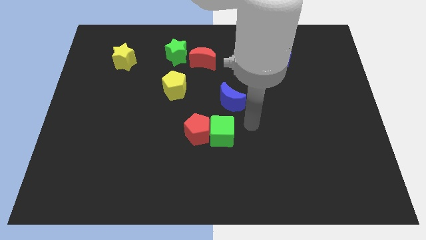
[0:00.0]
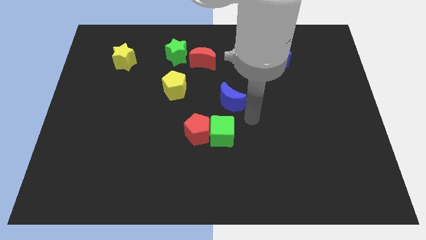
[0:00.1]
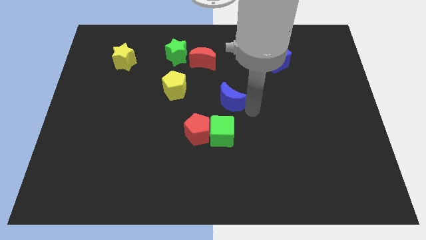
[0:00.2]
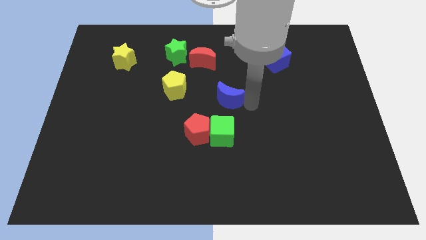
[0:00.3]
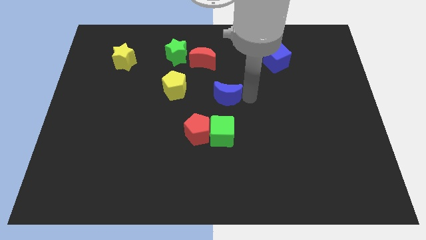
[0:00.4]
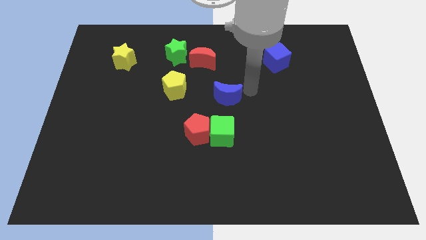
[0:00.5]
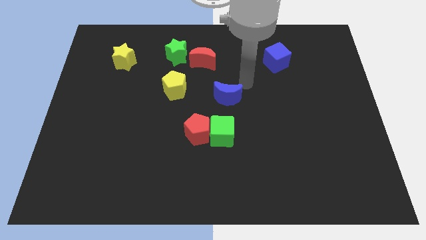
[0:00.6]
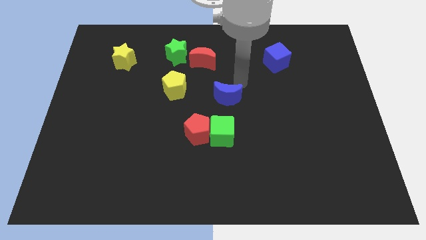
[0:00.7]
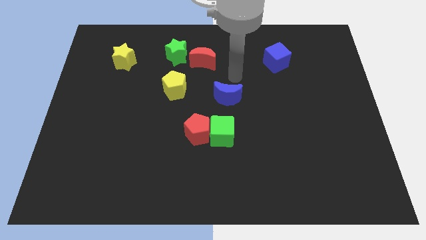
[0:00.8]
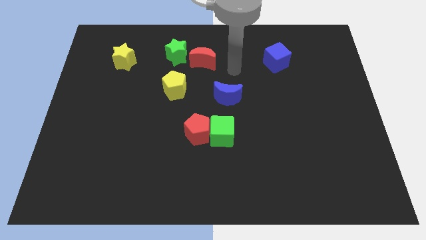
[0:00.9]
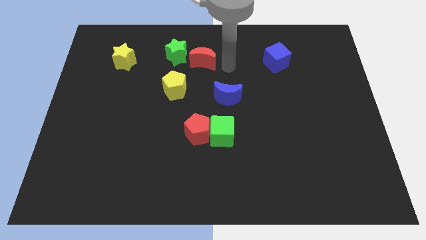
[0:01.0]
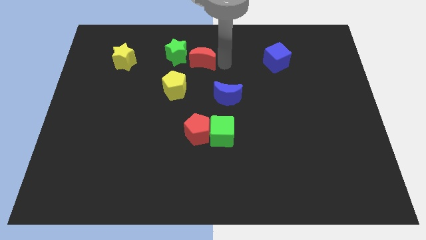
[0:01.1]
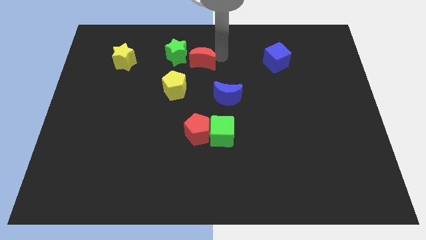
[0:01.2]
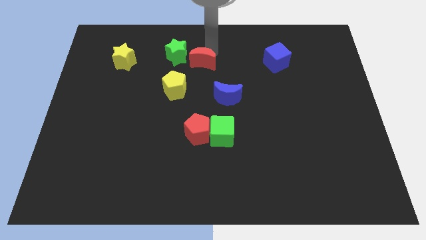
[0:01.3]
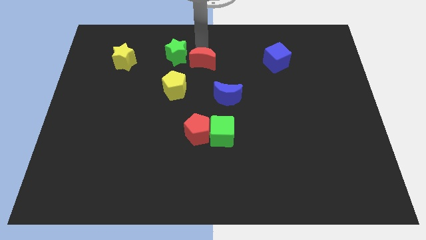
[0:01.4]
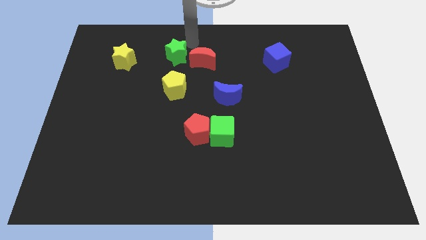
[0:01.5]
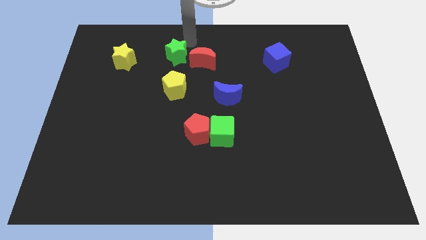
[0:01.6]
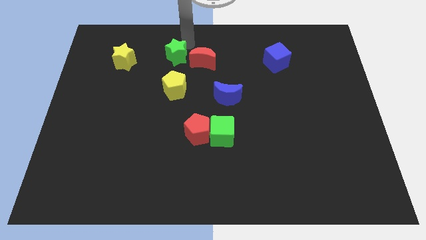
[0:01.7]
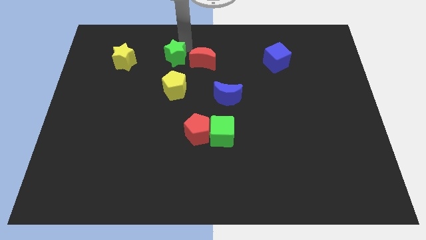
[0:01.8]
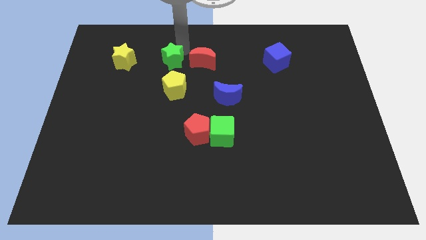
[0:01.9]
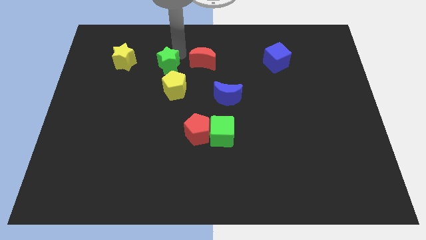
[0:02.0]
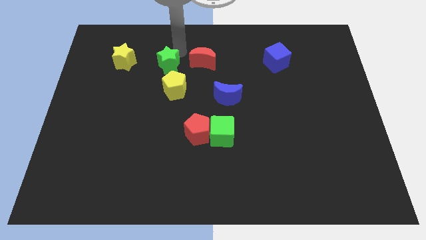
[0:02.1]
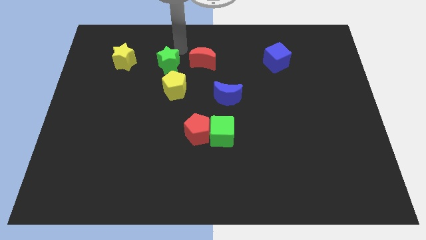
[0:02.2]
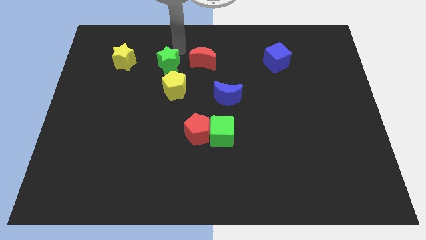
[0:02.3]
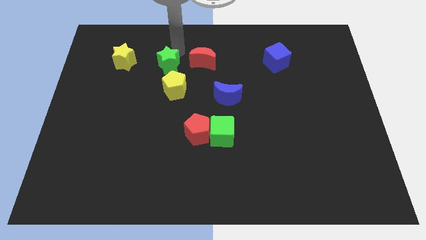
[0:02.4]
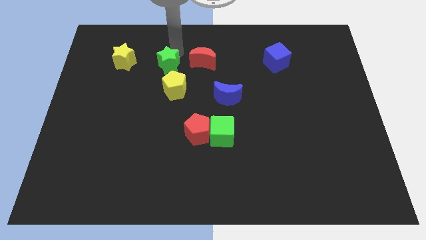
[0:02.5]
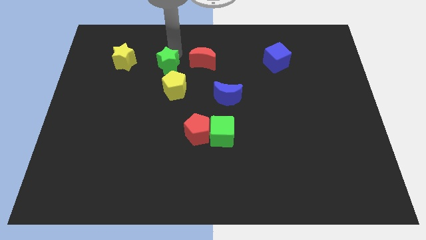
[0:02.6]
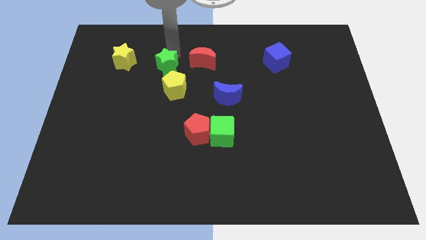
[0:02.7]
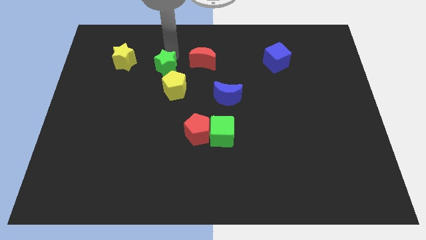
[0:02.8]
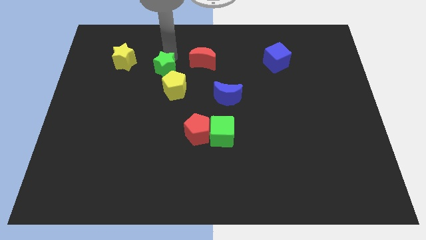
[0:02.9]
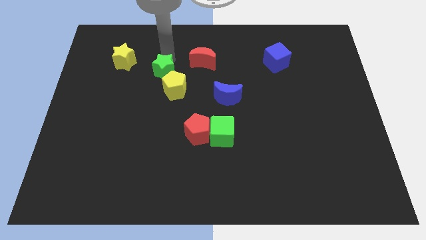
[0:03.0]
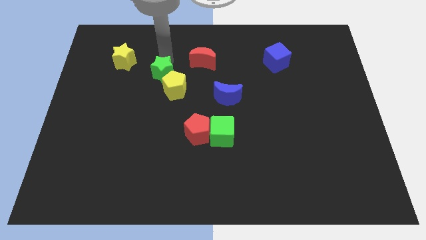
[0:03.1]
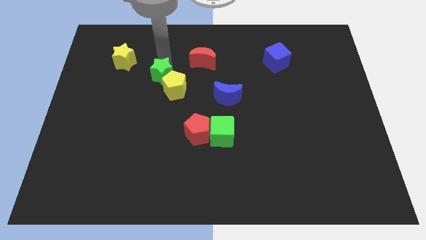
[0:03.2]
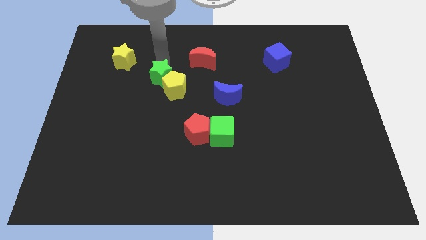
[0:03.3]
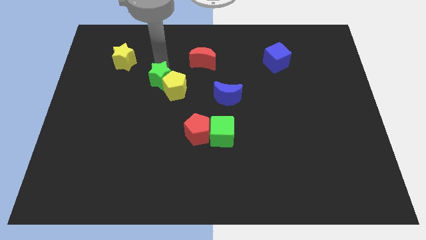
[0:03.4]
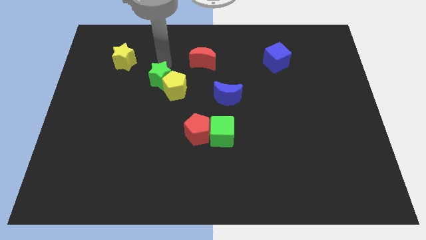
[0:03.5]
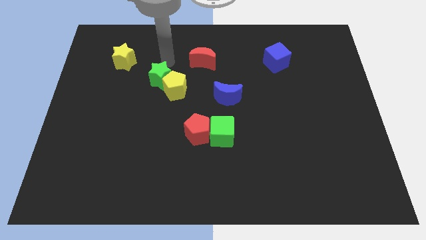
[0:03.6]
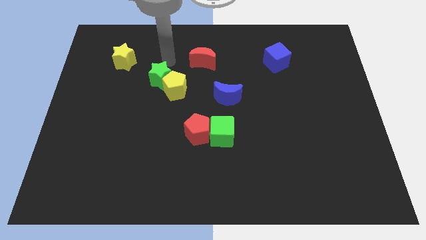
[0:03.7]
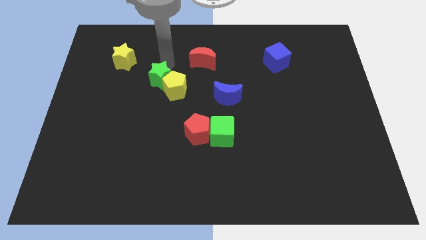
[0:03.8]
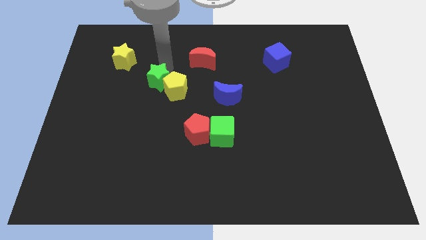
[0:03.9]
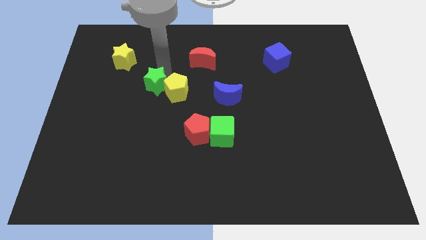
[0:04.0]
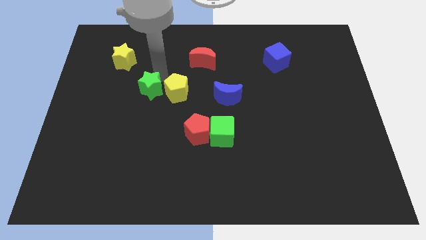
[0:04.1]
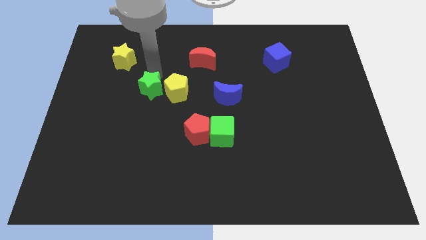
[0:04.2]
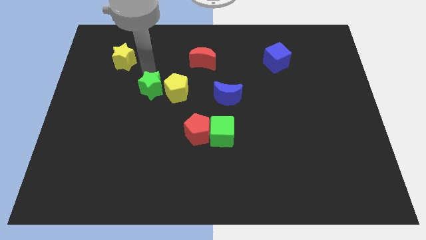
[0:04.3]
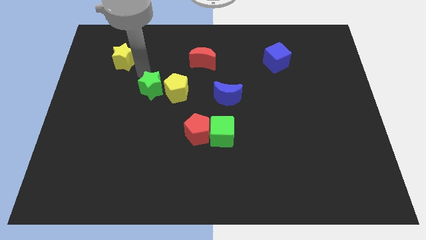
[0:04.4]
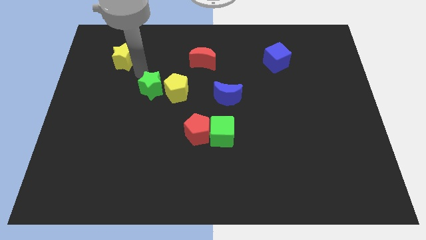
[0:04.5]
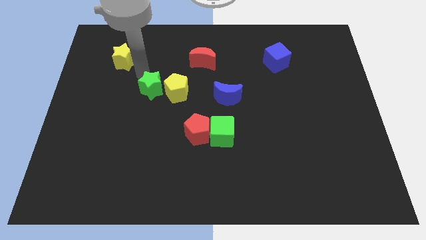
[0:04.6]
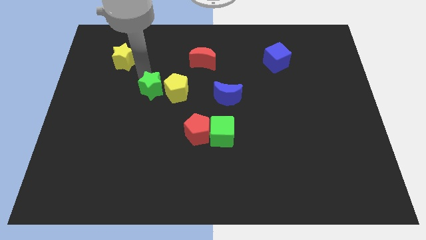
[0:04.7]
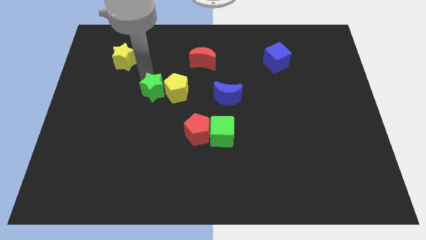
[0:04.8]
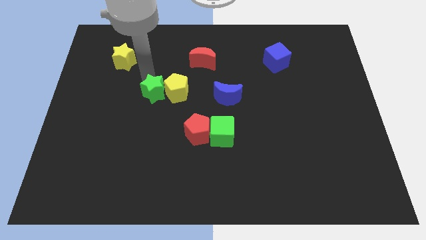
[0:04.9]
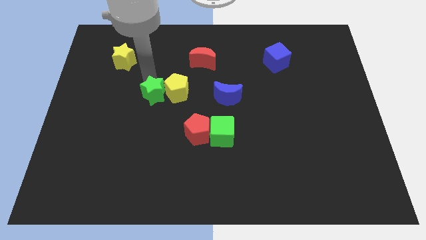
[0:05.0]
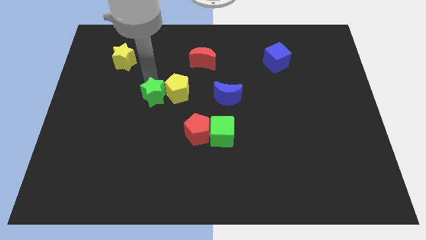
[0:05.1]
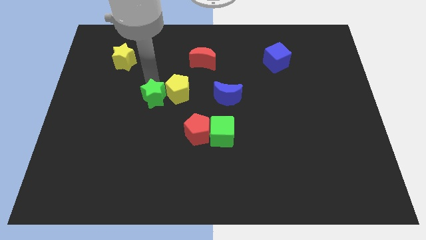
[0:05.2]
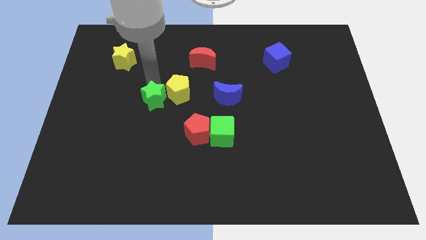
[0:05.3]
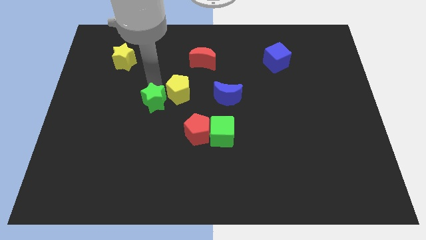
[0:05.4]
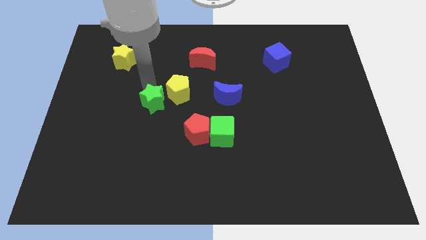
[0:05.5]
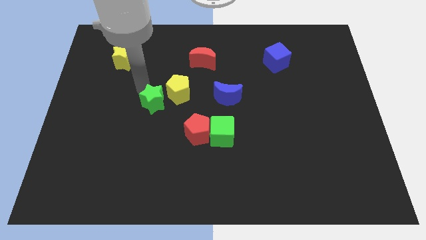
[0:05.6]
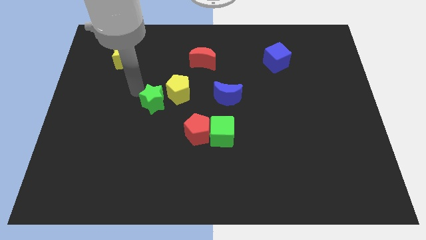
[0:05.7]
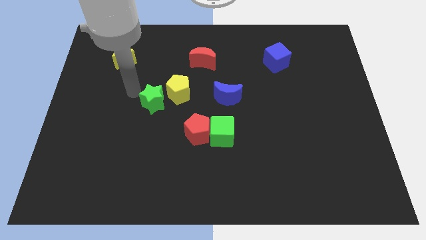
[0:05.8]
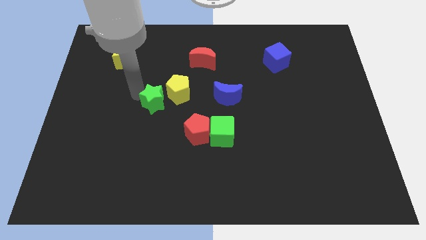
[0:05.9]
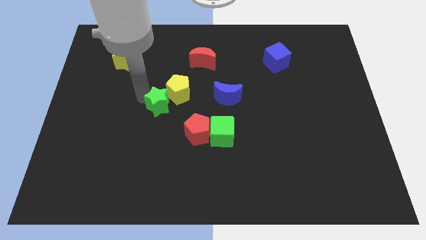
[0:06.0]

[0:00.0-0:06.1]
move the green star to the top left side of the red pentagon
